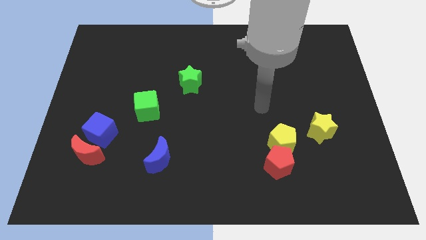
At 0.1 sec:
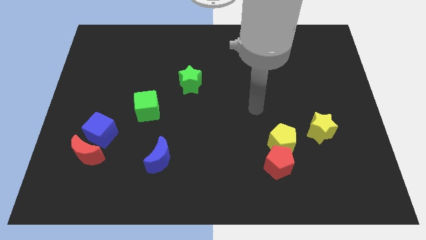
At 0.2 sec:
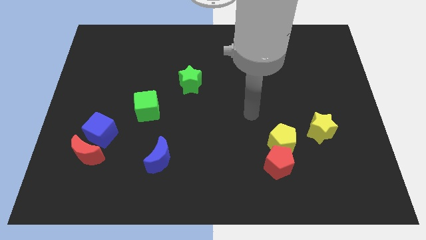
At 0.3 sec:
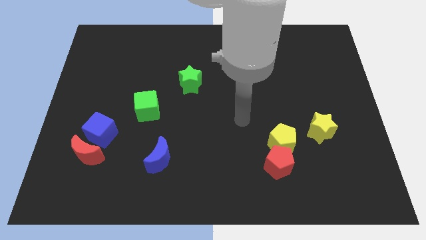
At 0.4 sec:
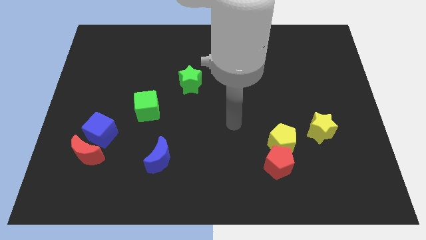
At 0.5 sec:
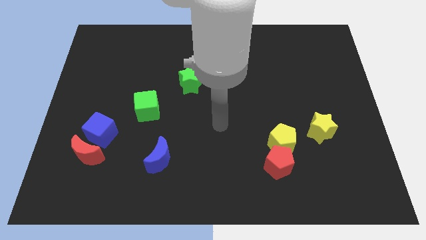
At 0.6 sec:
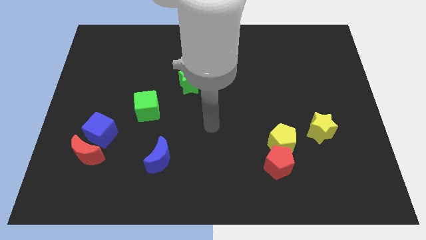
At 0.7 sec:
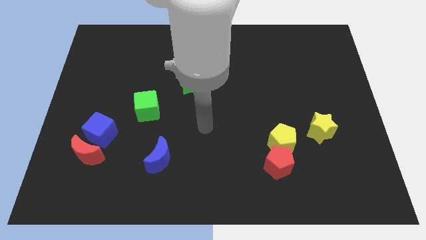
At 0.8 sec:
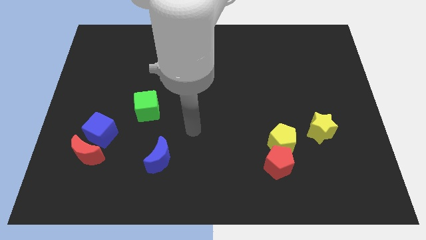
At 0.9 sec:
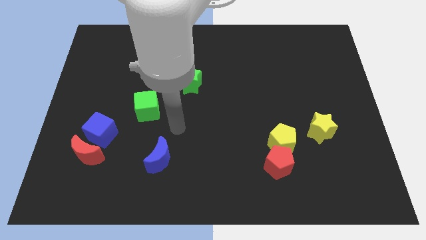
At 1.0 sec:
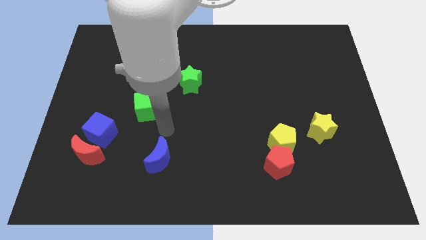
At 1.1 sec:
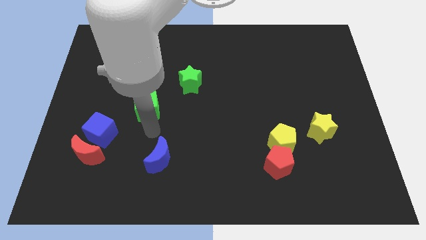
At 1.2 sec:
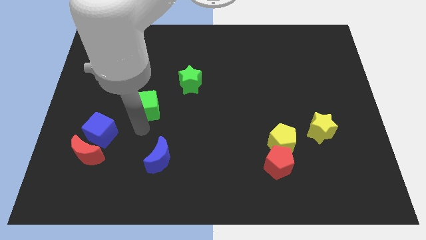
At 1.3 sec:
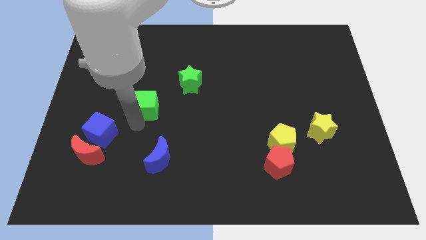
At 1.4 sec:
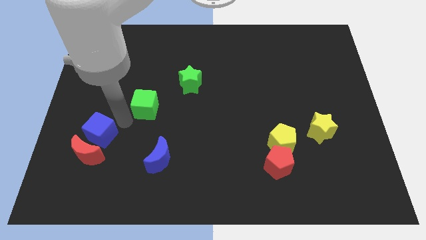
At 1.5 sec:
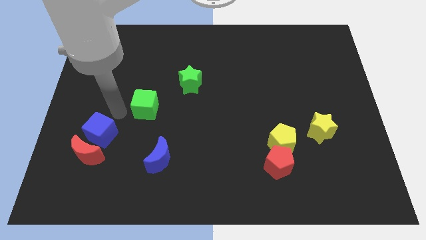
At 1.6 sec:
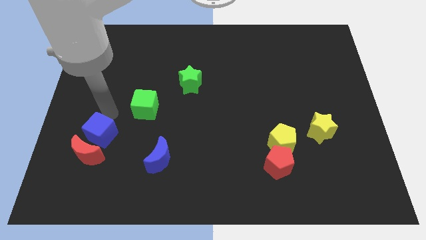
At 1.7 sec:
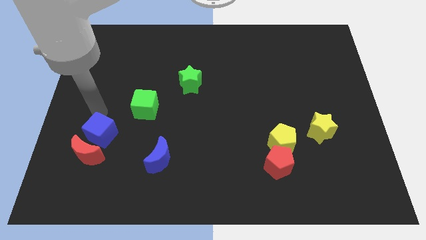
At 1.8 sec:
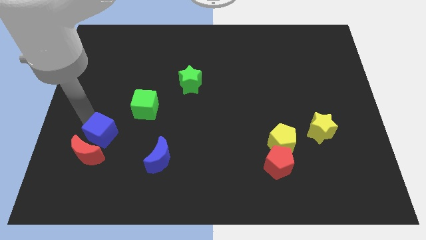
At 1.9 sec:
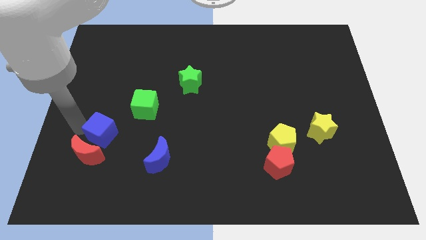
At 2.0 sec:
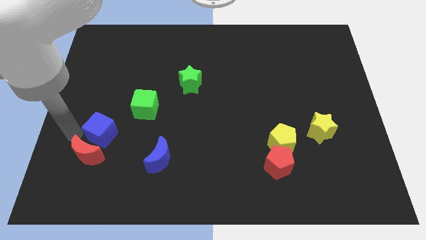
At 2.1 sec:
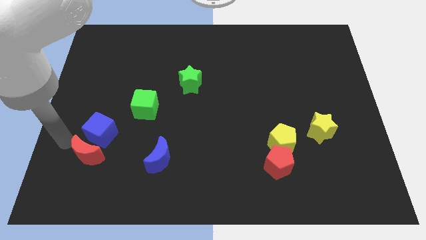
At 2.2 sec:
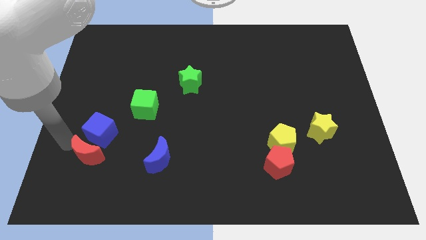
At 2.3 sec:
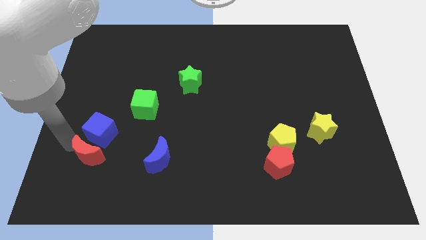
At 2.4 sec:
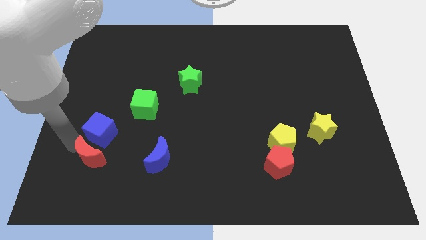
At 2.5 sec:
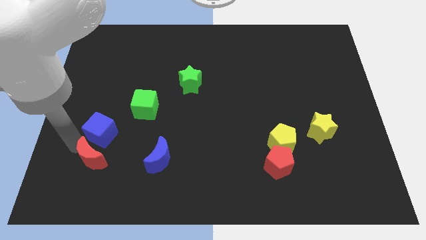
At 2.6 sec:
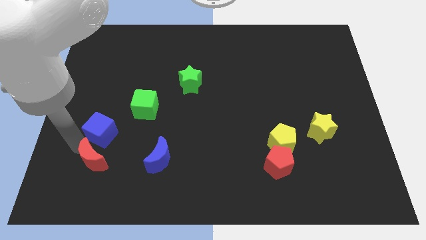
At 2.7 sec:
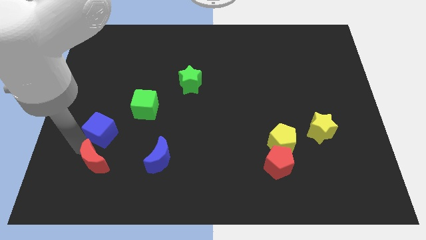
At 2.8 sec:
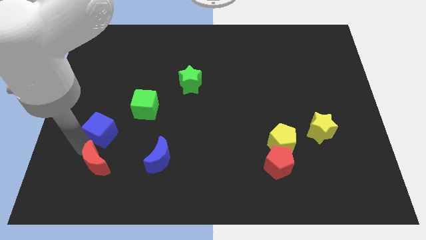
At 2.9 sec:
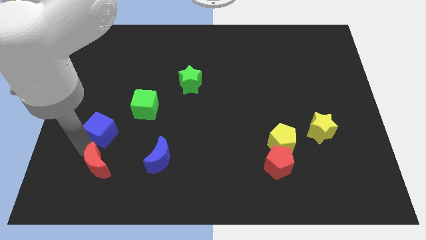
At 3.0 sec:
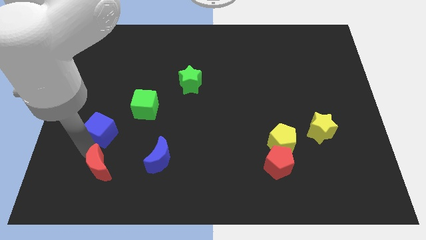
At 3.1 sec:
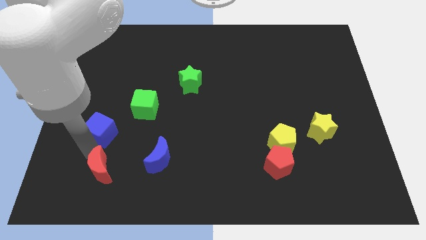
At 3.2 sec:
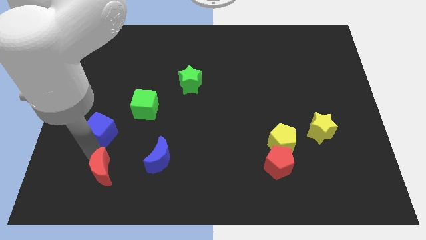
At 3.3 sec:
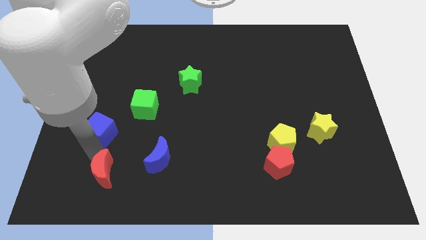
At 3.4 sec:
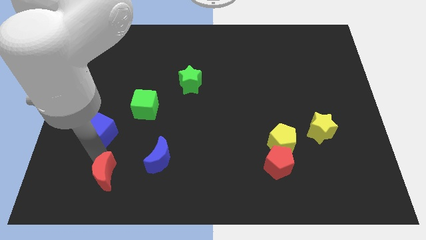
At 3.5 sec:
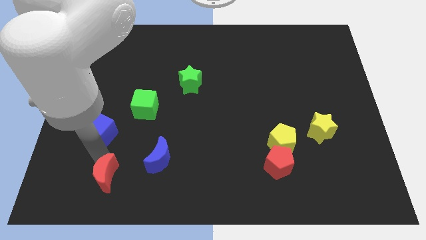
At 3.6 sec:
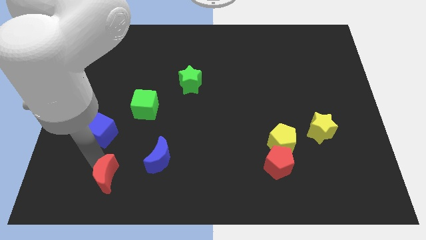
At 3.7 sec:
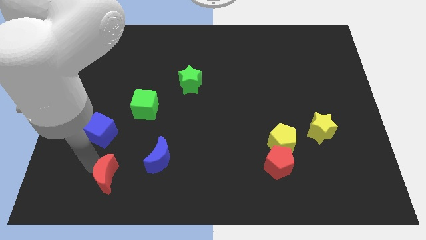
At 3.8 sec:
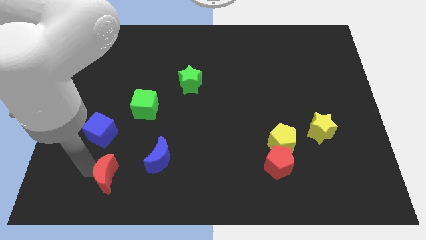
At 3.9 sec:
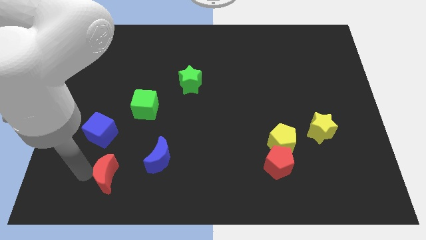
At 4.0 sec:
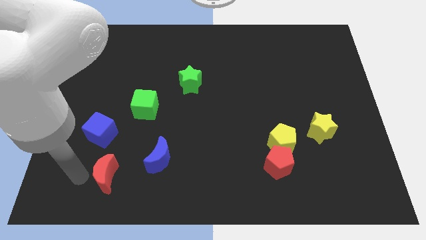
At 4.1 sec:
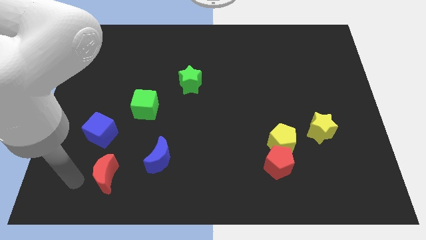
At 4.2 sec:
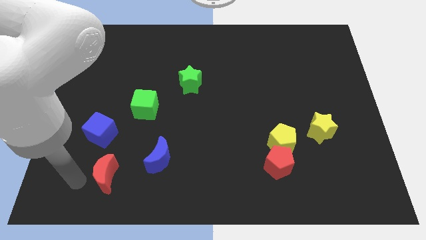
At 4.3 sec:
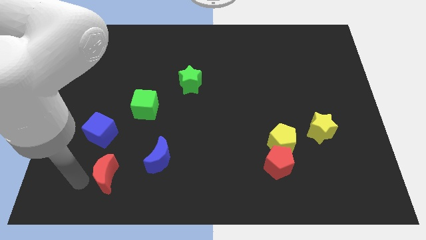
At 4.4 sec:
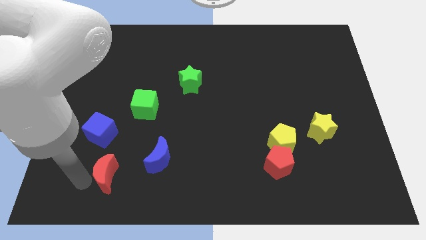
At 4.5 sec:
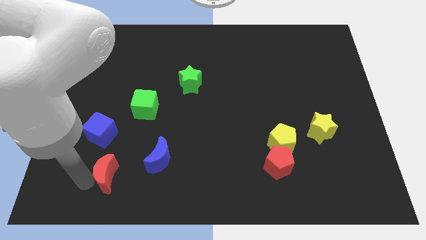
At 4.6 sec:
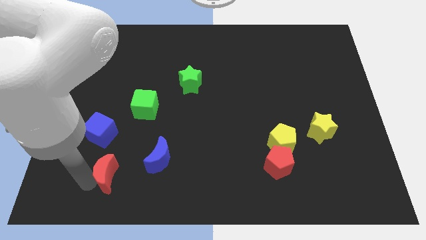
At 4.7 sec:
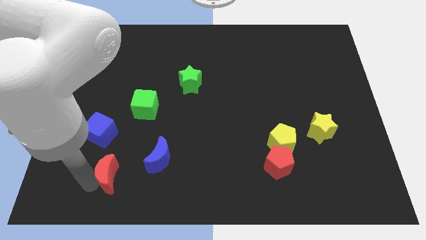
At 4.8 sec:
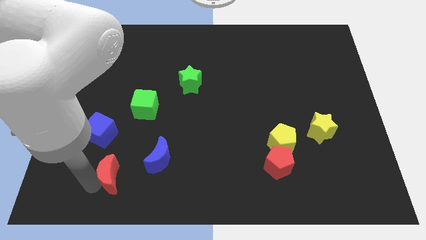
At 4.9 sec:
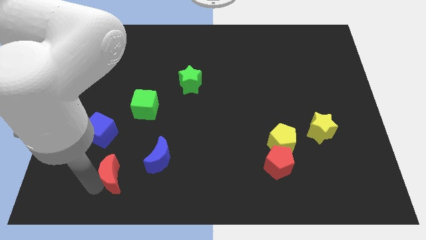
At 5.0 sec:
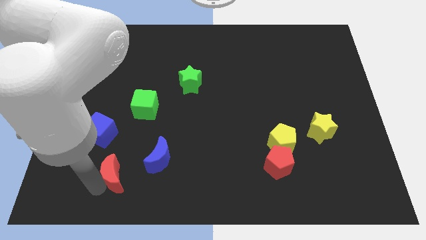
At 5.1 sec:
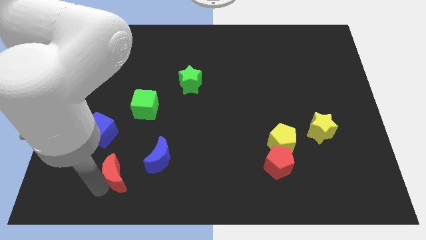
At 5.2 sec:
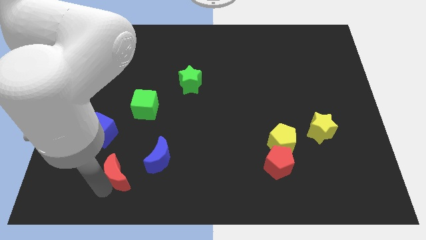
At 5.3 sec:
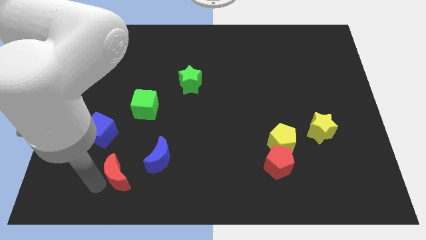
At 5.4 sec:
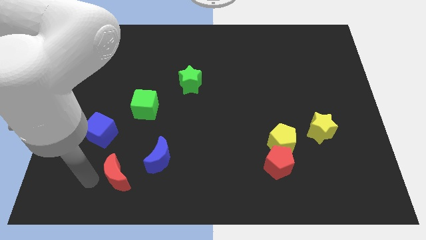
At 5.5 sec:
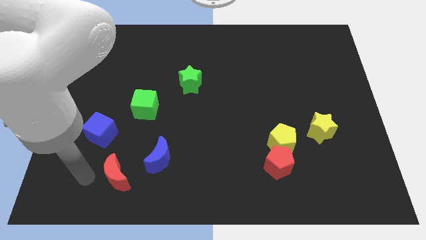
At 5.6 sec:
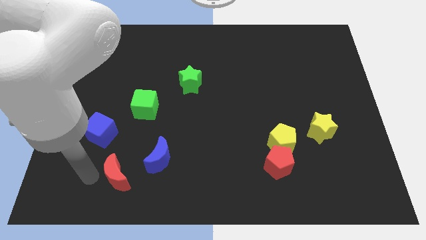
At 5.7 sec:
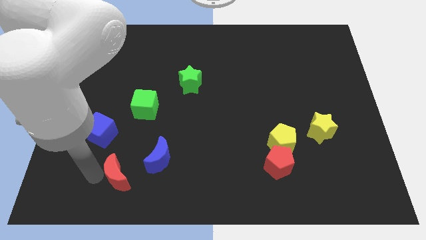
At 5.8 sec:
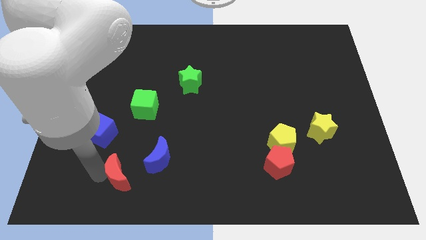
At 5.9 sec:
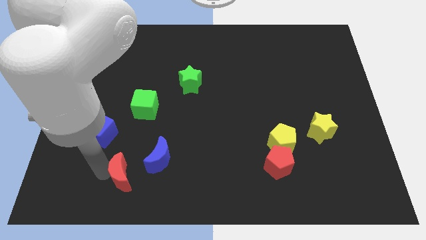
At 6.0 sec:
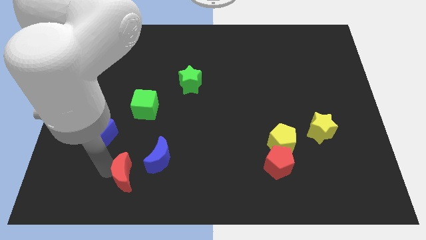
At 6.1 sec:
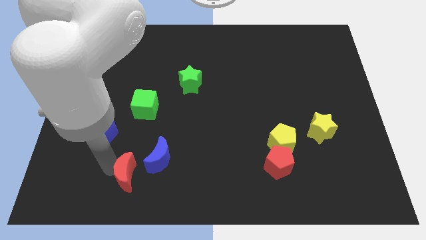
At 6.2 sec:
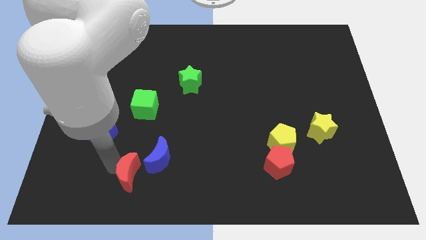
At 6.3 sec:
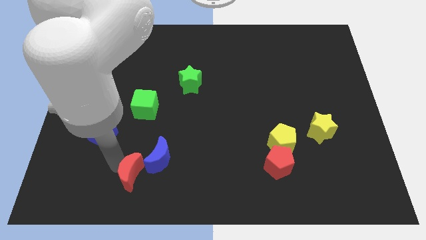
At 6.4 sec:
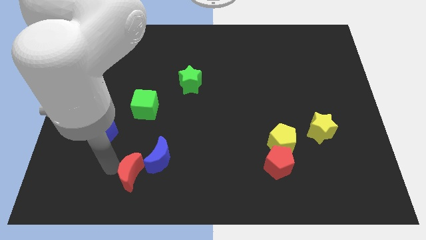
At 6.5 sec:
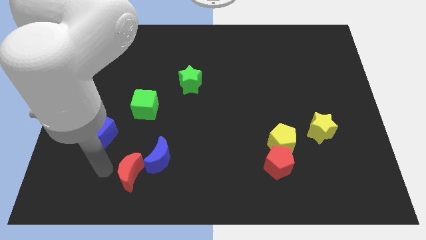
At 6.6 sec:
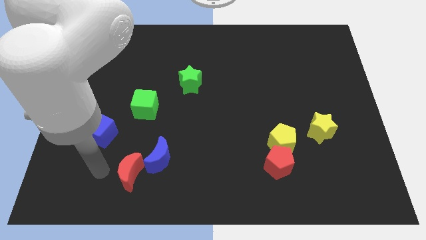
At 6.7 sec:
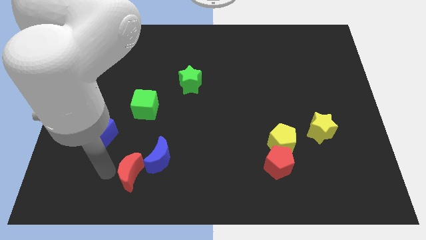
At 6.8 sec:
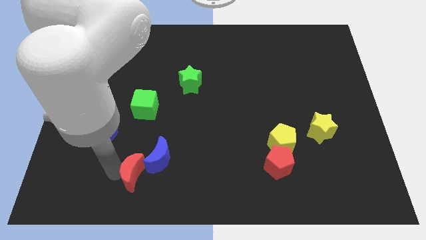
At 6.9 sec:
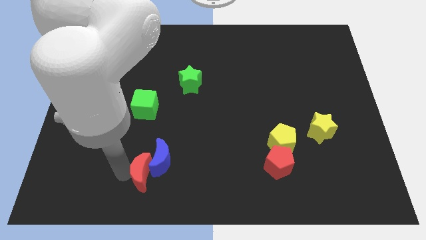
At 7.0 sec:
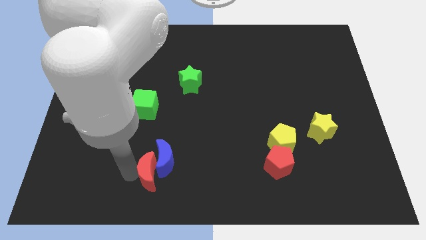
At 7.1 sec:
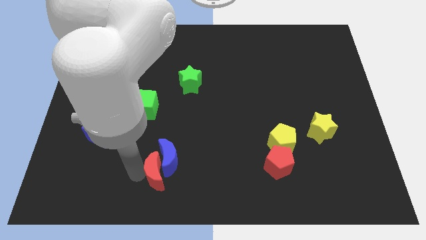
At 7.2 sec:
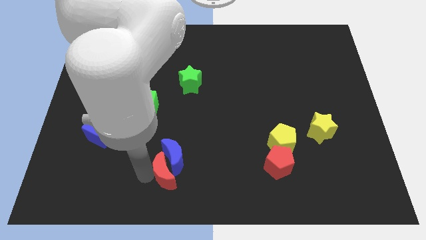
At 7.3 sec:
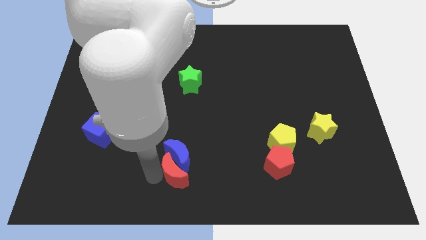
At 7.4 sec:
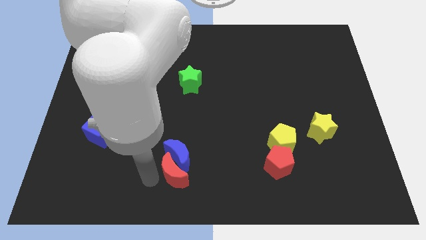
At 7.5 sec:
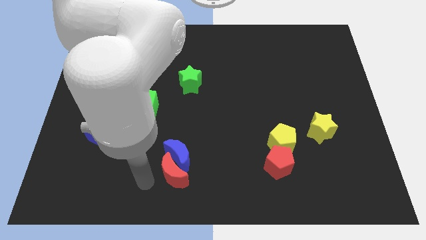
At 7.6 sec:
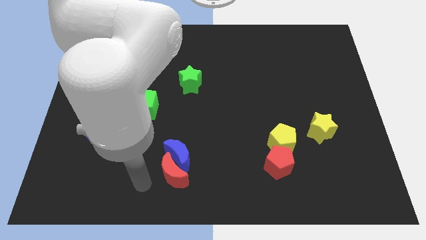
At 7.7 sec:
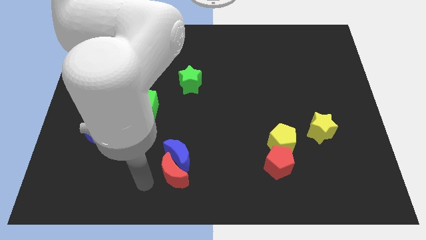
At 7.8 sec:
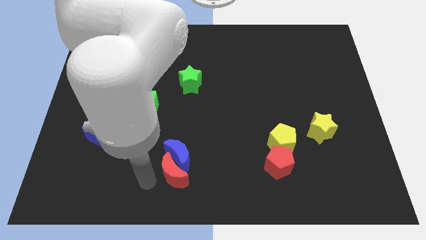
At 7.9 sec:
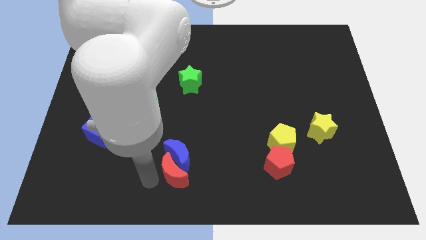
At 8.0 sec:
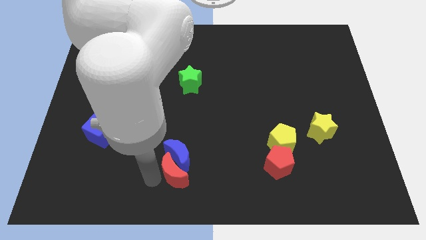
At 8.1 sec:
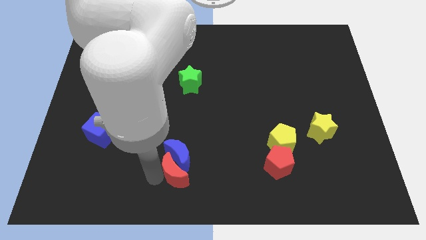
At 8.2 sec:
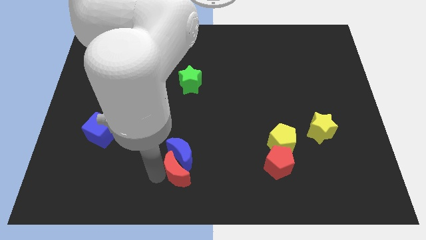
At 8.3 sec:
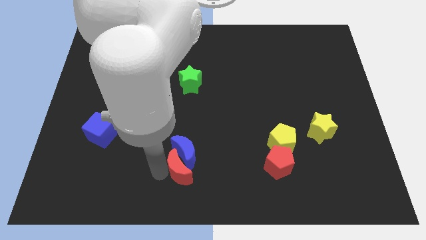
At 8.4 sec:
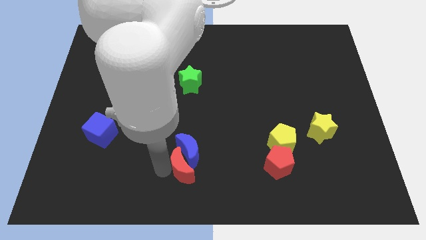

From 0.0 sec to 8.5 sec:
slide the red moon right
